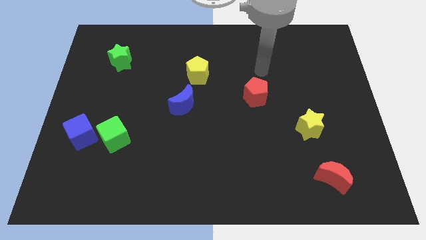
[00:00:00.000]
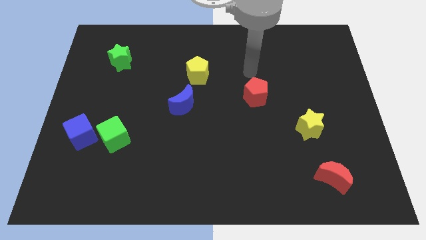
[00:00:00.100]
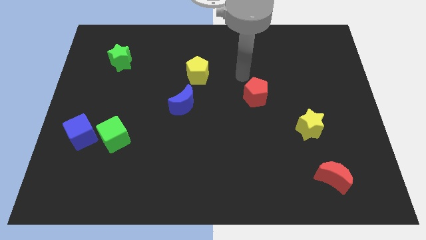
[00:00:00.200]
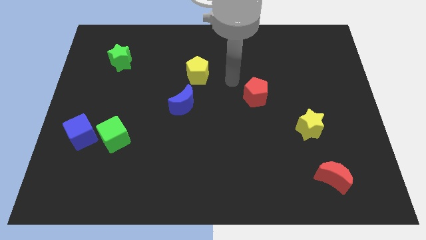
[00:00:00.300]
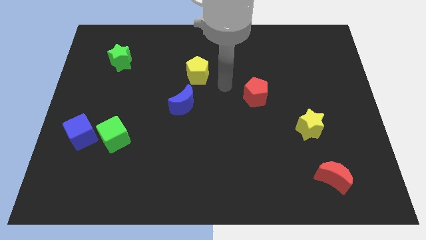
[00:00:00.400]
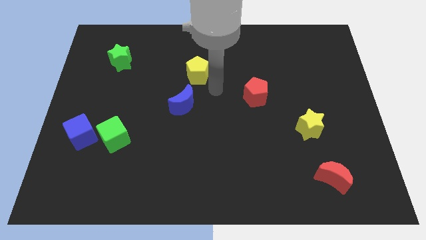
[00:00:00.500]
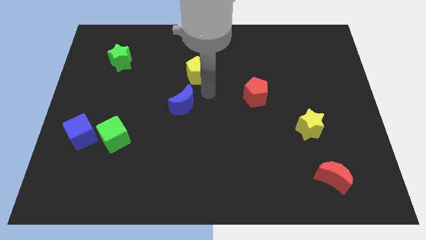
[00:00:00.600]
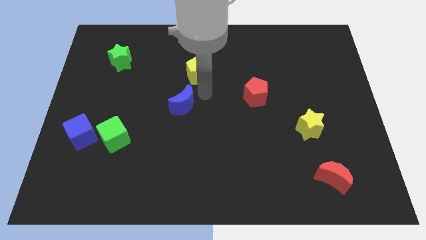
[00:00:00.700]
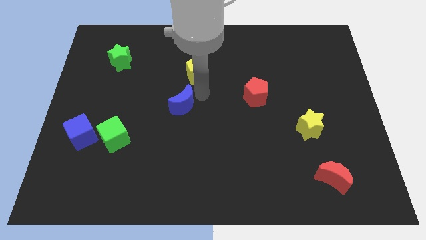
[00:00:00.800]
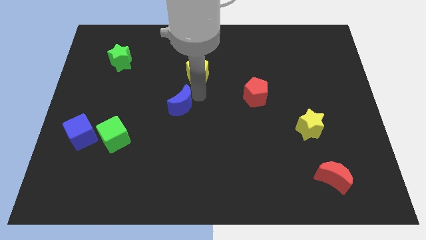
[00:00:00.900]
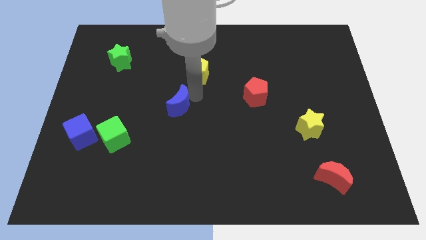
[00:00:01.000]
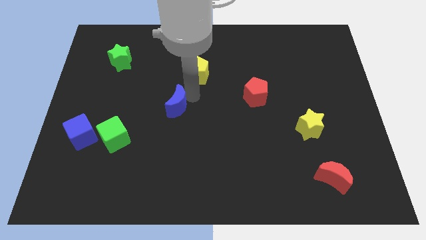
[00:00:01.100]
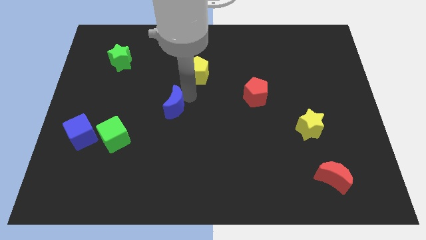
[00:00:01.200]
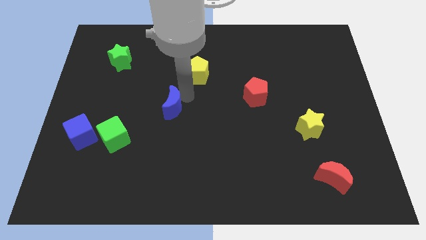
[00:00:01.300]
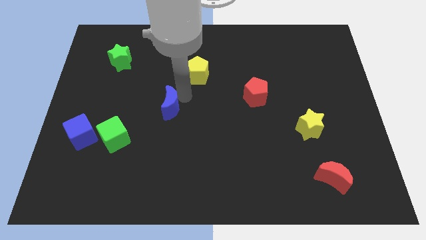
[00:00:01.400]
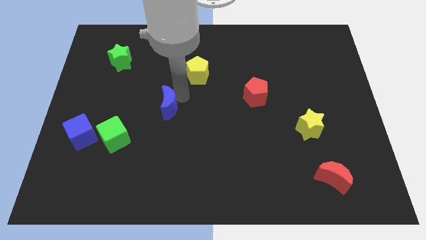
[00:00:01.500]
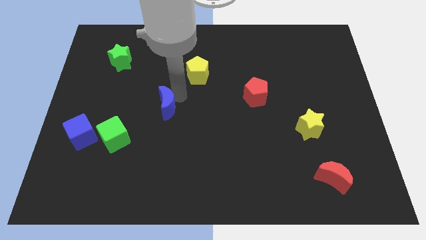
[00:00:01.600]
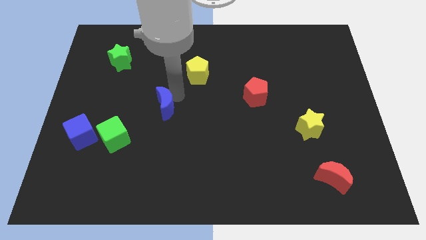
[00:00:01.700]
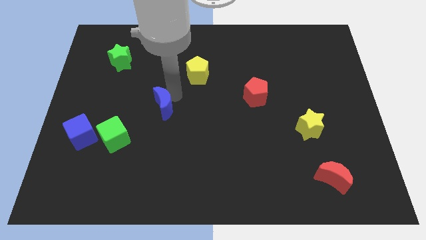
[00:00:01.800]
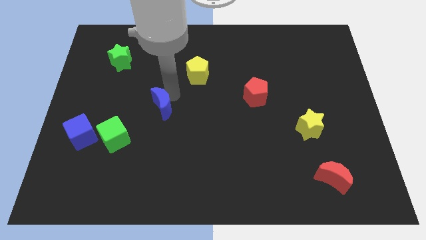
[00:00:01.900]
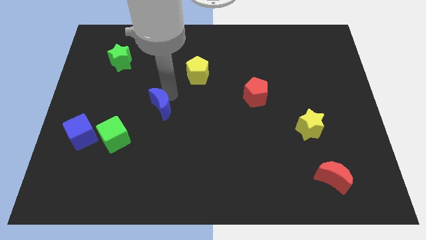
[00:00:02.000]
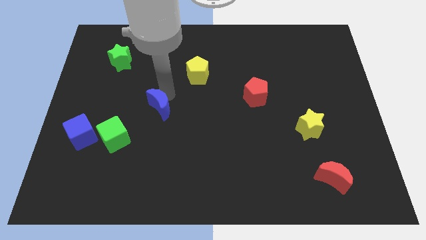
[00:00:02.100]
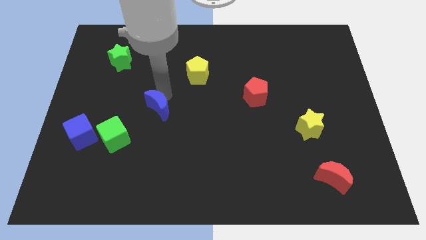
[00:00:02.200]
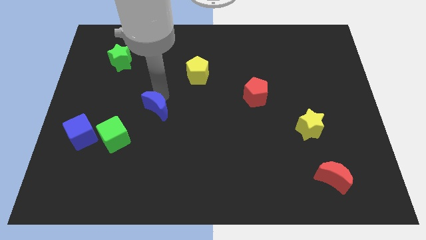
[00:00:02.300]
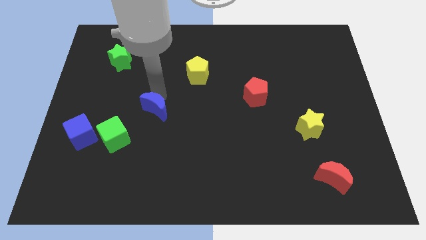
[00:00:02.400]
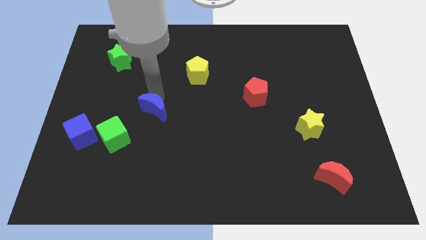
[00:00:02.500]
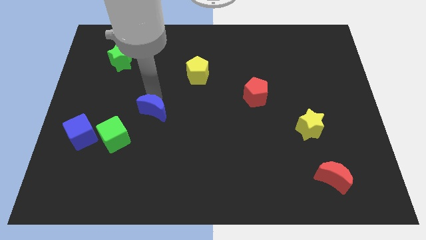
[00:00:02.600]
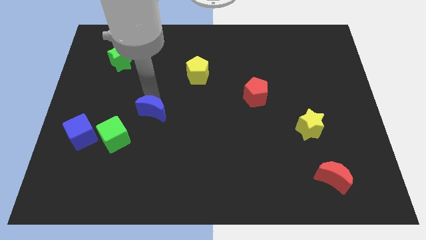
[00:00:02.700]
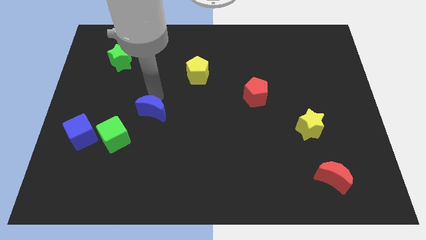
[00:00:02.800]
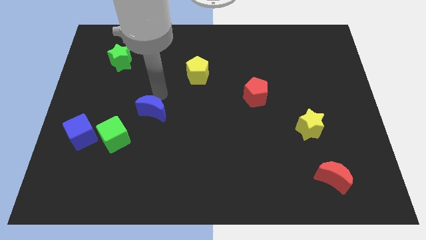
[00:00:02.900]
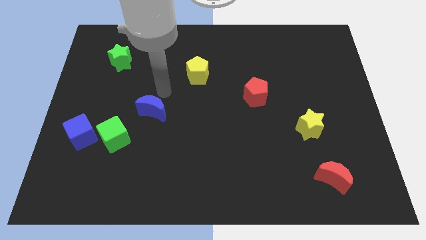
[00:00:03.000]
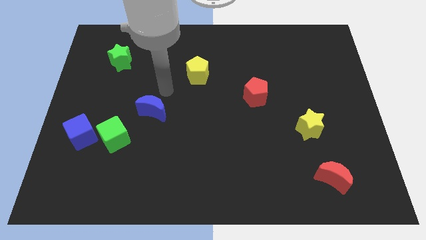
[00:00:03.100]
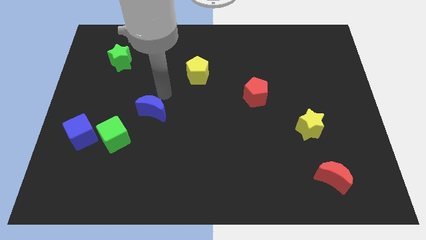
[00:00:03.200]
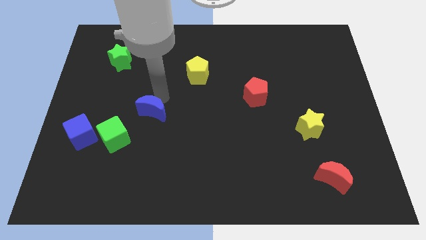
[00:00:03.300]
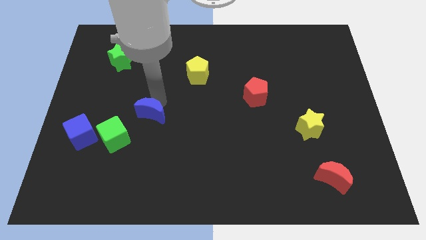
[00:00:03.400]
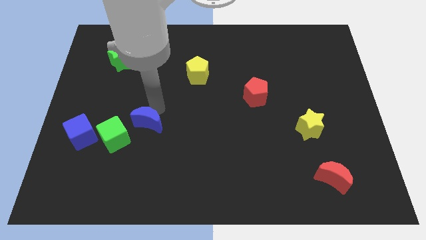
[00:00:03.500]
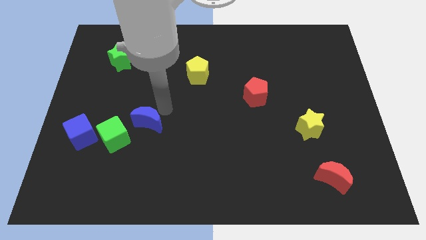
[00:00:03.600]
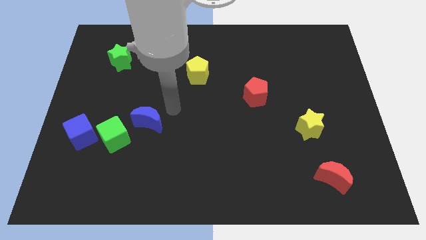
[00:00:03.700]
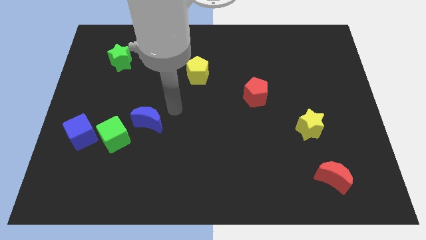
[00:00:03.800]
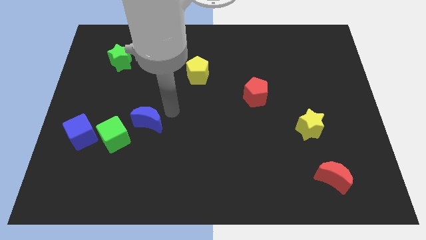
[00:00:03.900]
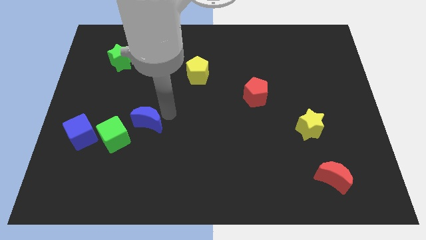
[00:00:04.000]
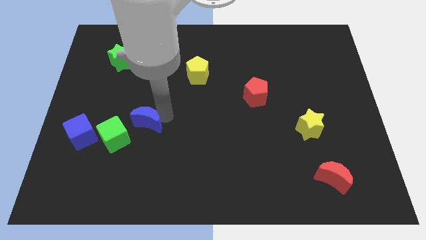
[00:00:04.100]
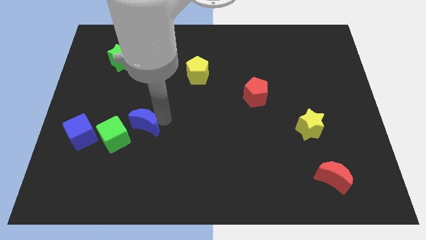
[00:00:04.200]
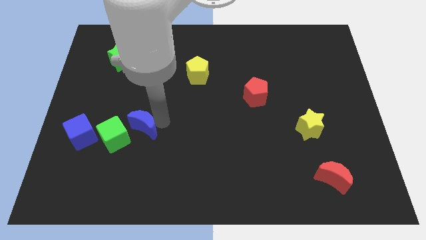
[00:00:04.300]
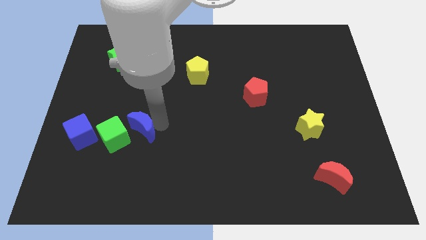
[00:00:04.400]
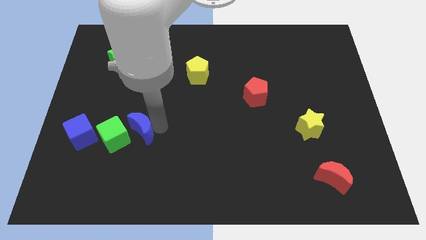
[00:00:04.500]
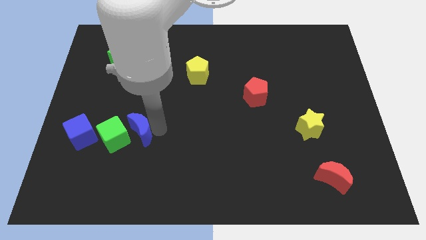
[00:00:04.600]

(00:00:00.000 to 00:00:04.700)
move the blue moon towards the green cube

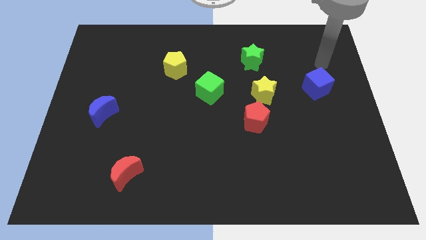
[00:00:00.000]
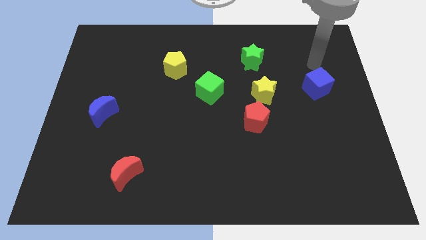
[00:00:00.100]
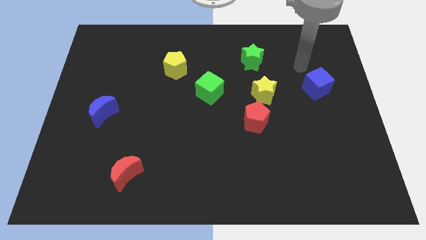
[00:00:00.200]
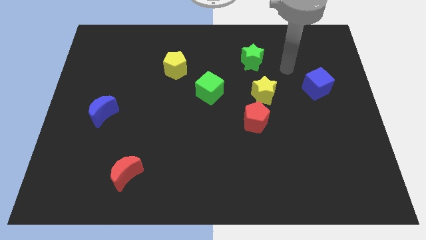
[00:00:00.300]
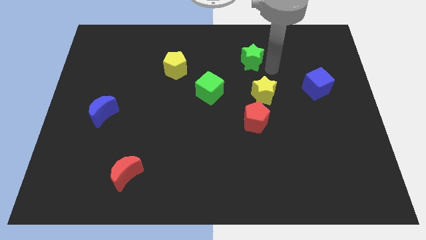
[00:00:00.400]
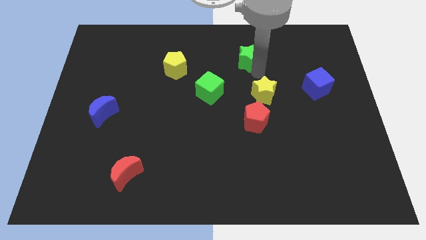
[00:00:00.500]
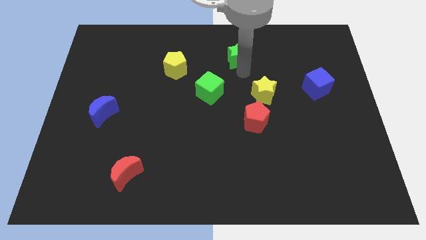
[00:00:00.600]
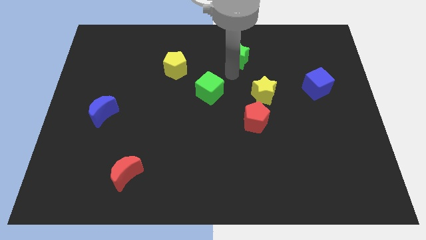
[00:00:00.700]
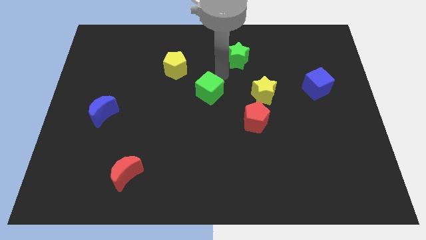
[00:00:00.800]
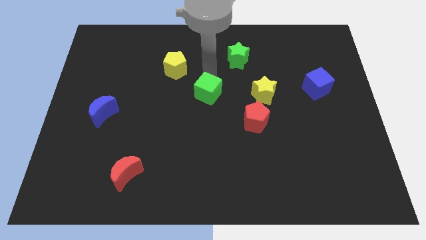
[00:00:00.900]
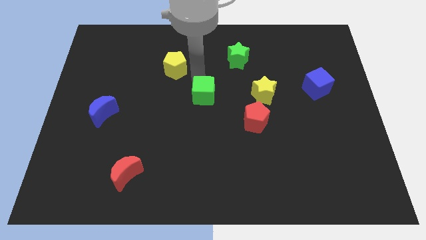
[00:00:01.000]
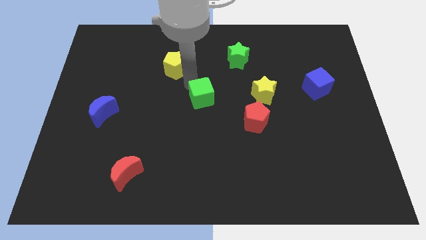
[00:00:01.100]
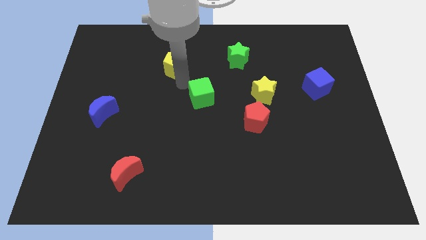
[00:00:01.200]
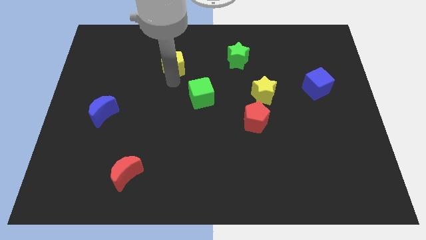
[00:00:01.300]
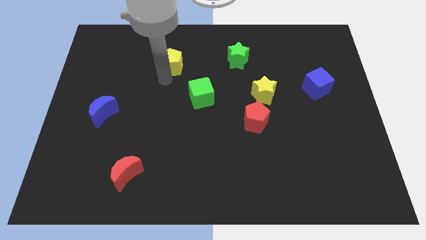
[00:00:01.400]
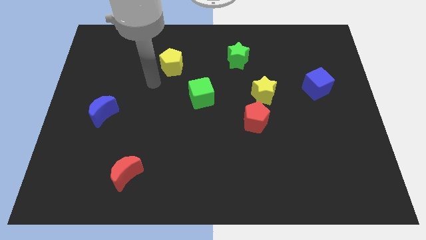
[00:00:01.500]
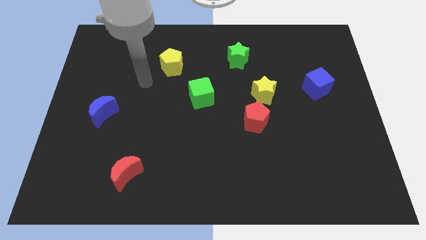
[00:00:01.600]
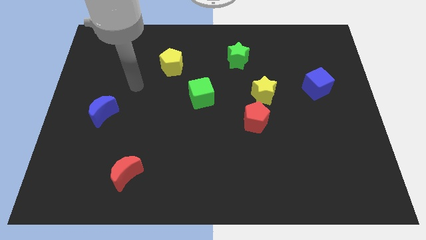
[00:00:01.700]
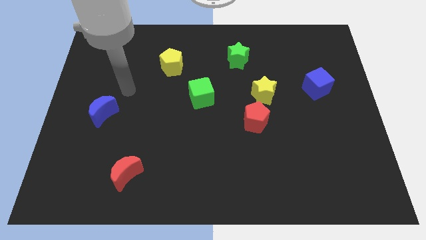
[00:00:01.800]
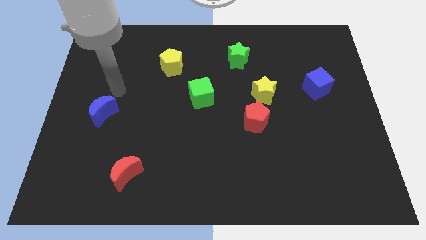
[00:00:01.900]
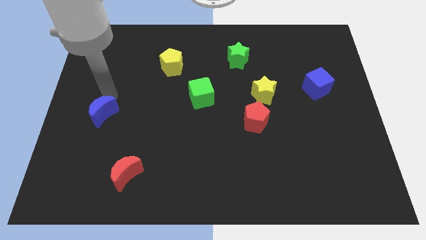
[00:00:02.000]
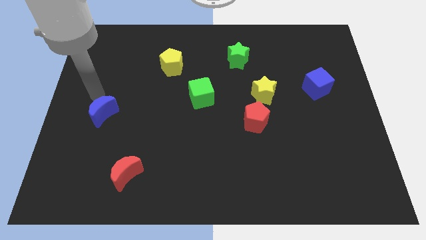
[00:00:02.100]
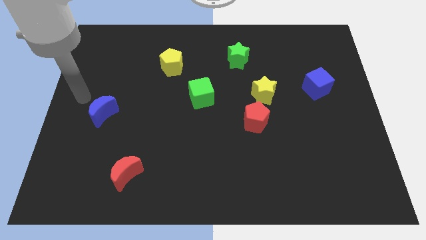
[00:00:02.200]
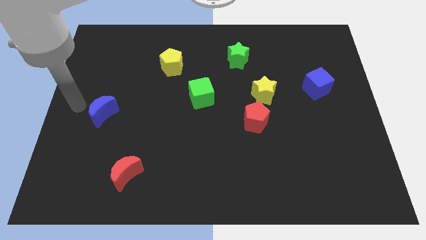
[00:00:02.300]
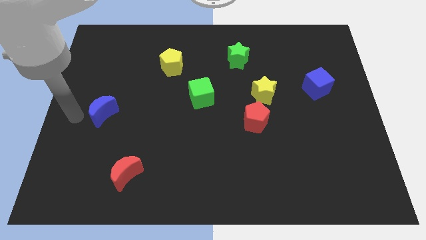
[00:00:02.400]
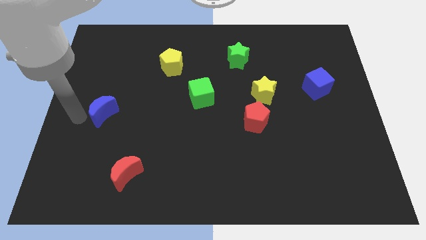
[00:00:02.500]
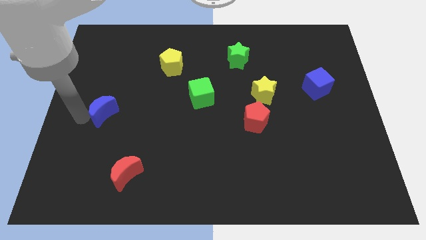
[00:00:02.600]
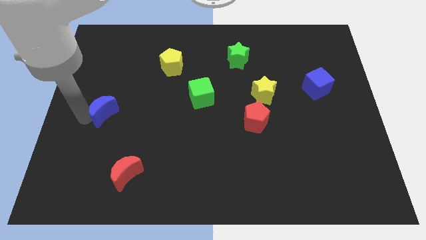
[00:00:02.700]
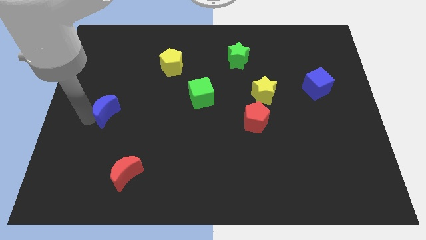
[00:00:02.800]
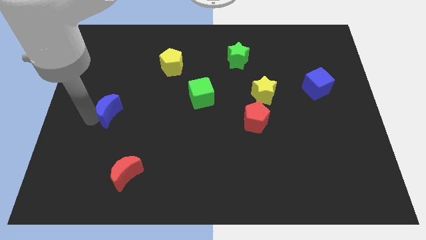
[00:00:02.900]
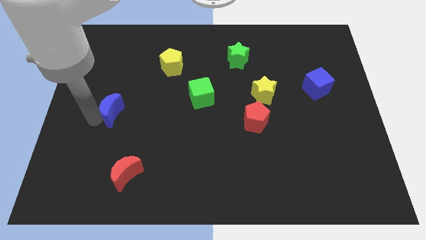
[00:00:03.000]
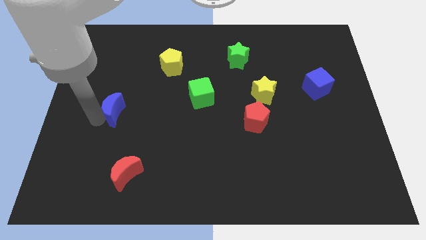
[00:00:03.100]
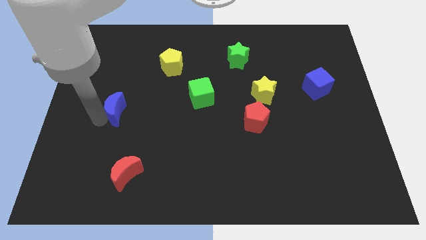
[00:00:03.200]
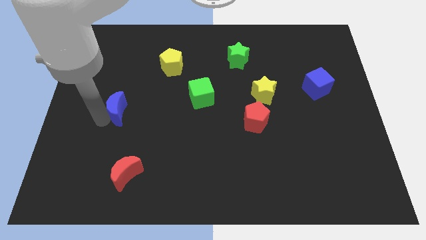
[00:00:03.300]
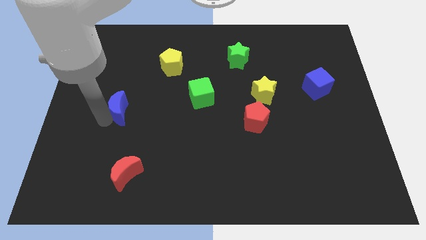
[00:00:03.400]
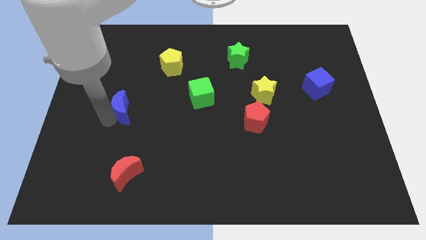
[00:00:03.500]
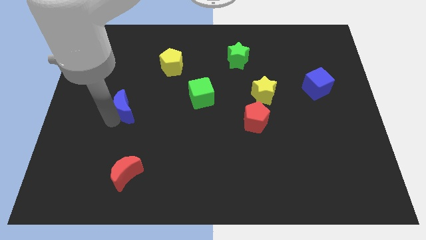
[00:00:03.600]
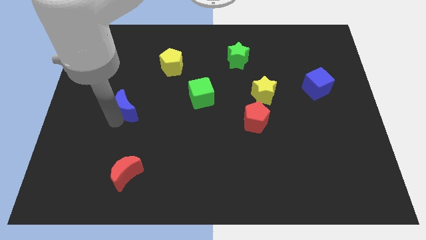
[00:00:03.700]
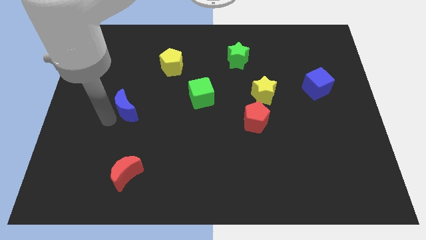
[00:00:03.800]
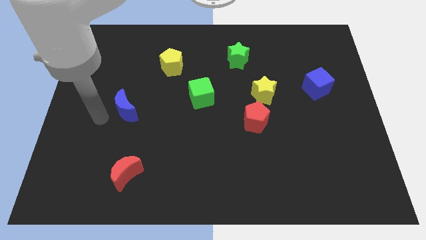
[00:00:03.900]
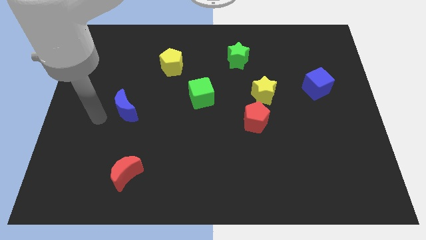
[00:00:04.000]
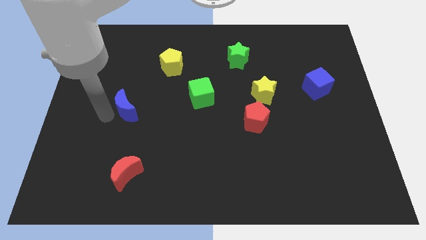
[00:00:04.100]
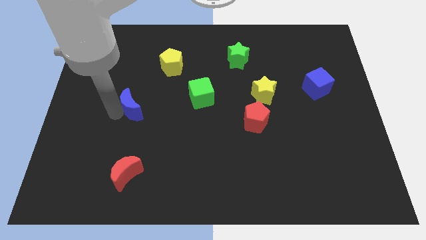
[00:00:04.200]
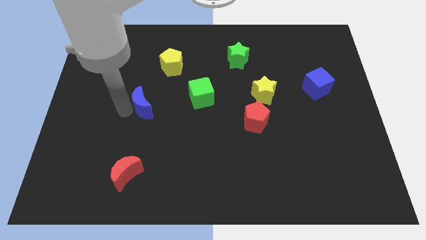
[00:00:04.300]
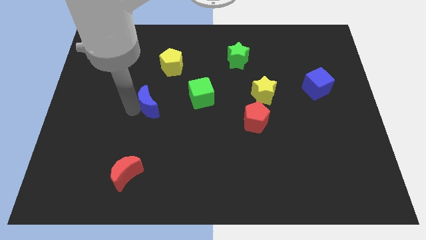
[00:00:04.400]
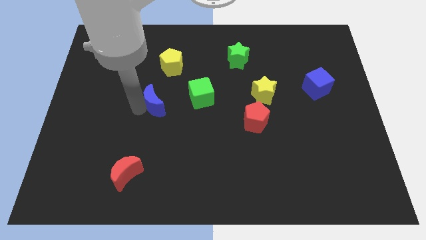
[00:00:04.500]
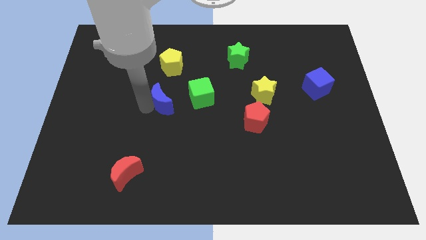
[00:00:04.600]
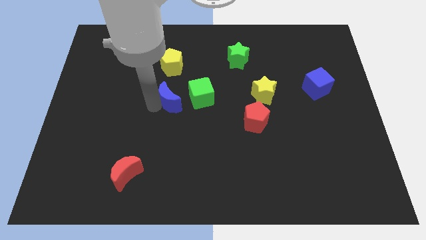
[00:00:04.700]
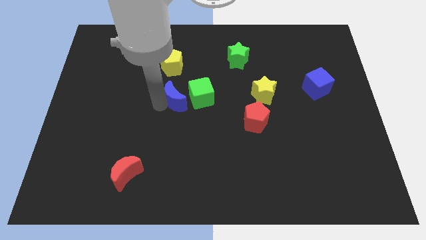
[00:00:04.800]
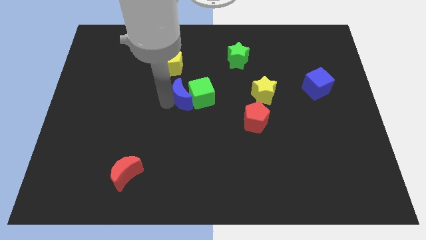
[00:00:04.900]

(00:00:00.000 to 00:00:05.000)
slide the blue moon close to the green cube
